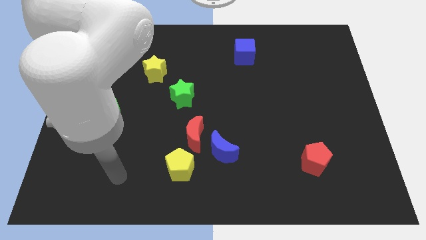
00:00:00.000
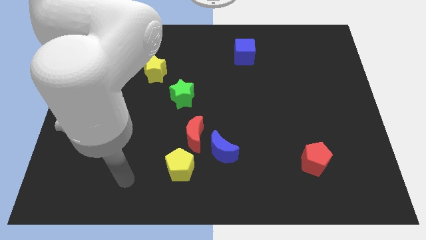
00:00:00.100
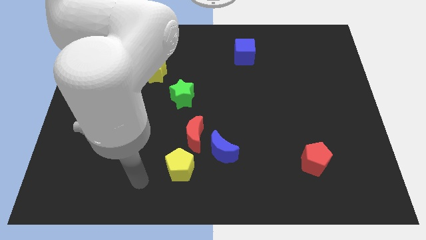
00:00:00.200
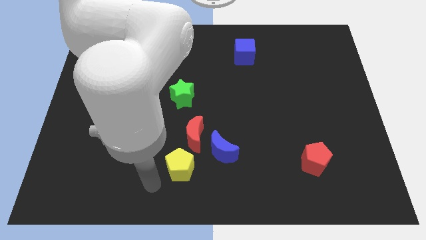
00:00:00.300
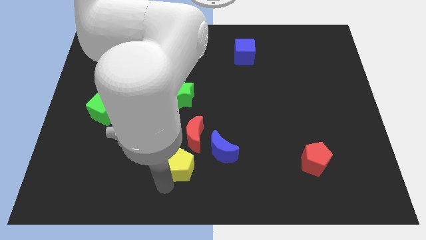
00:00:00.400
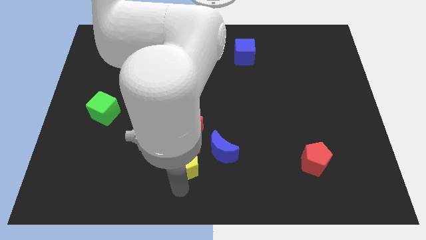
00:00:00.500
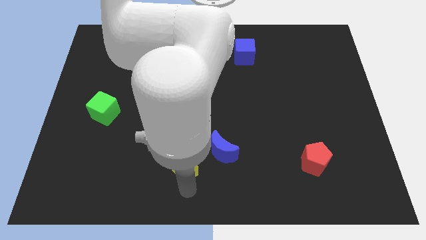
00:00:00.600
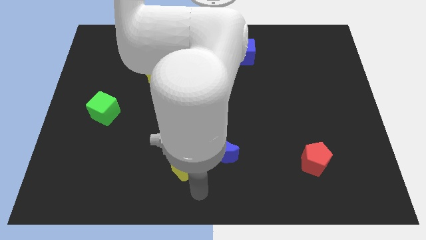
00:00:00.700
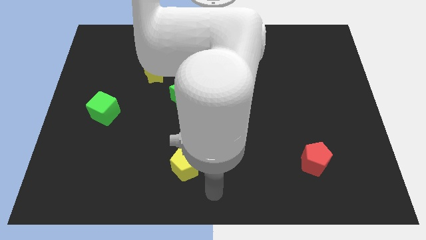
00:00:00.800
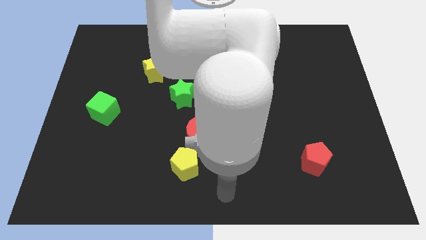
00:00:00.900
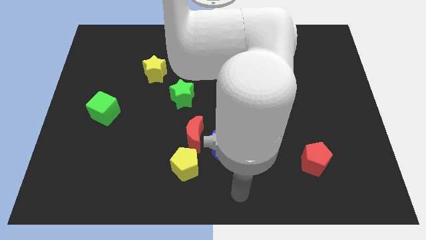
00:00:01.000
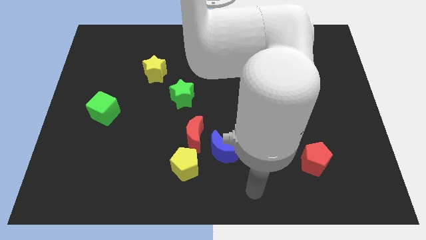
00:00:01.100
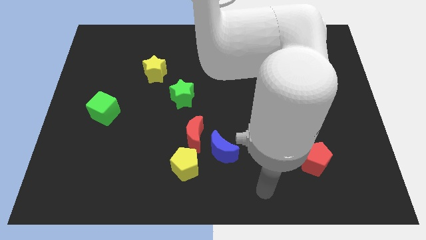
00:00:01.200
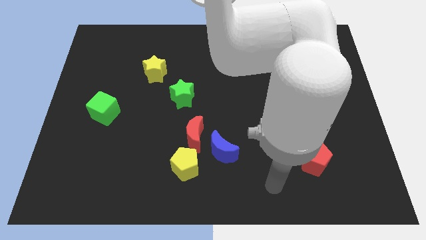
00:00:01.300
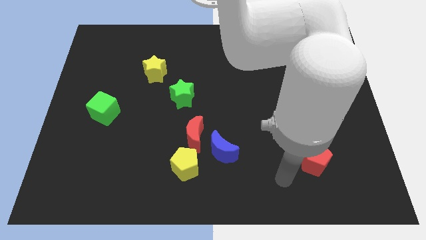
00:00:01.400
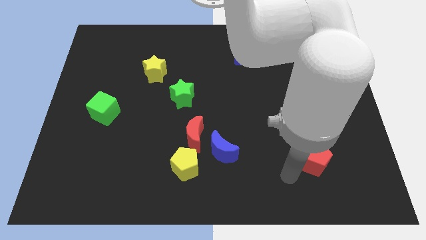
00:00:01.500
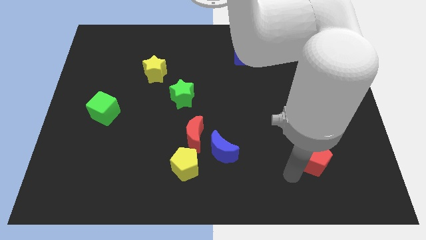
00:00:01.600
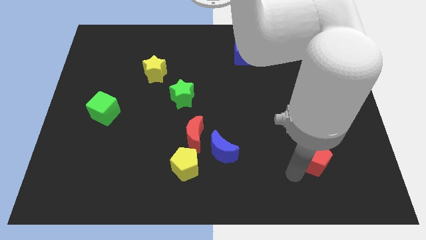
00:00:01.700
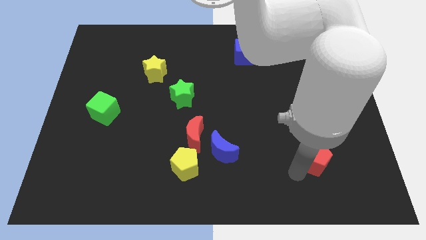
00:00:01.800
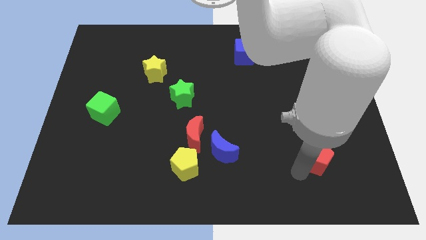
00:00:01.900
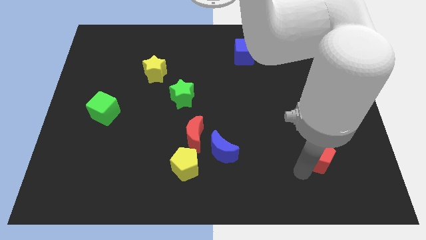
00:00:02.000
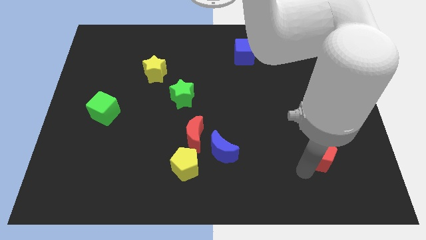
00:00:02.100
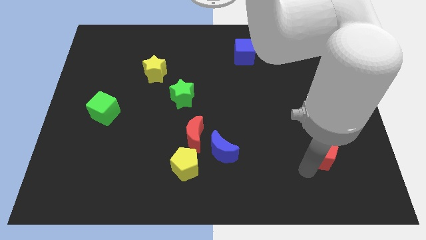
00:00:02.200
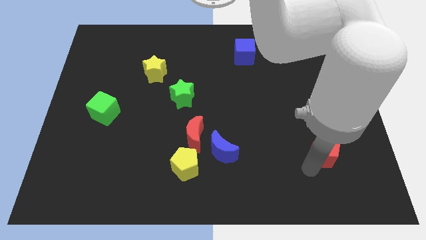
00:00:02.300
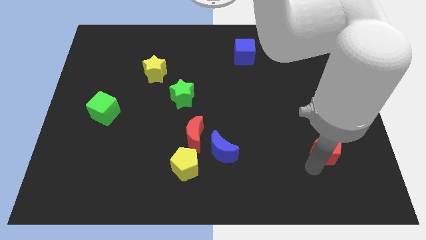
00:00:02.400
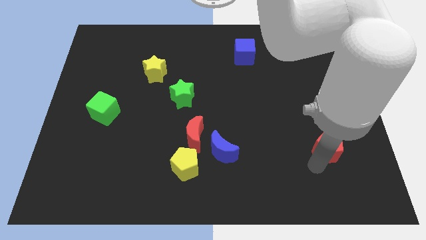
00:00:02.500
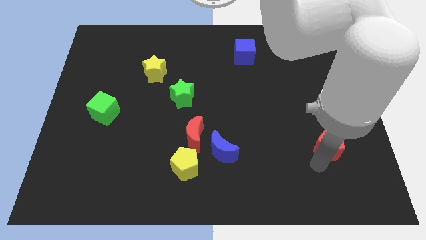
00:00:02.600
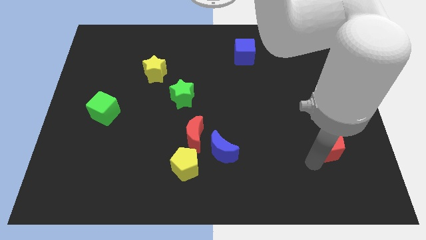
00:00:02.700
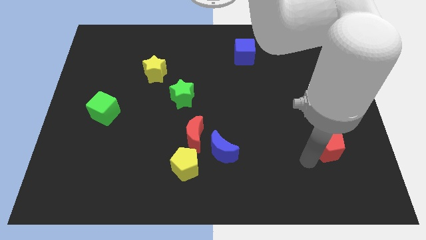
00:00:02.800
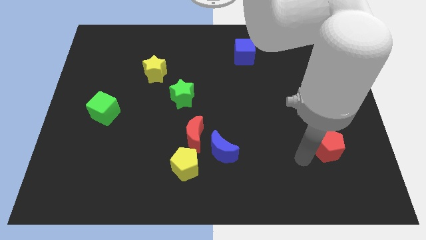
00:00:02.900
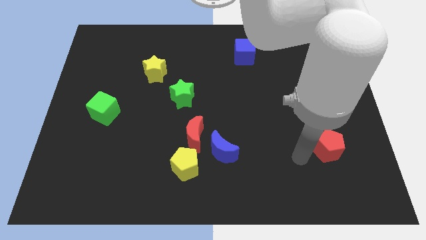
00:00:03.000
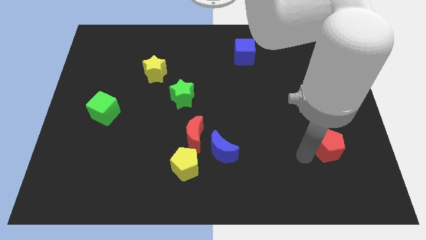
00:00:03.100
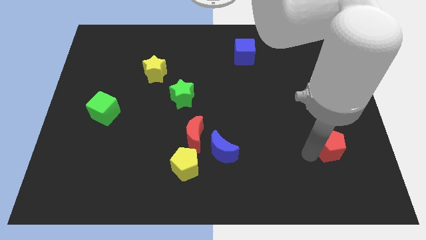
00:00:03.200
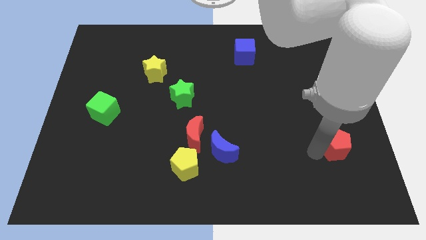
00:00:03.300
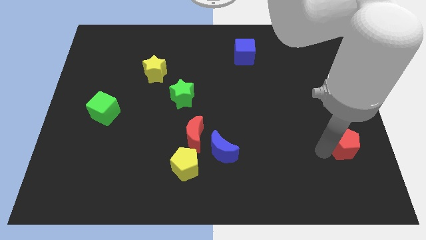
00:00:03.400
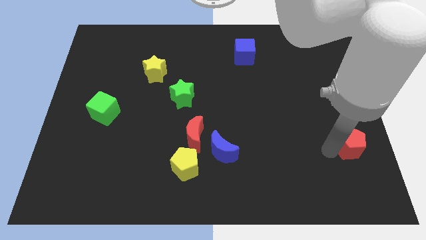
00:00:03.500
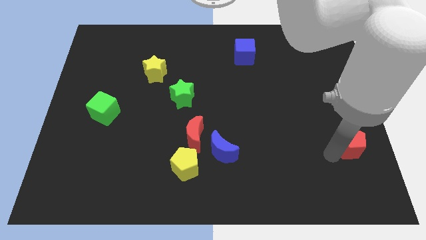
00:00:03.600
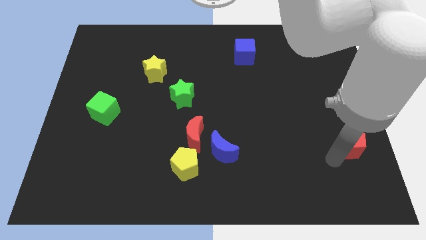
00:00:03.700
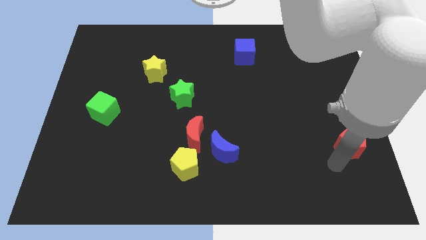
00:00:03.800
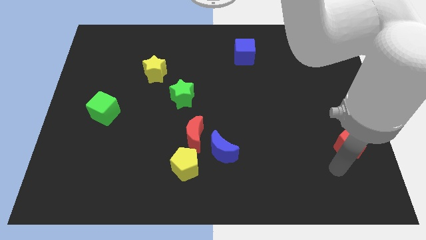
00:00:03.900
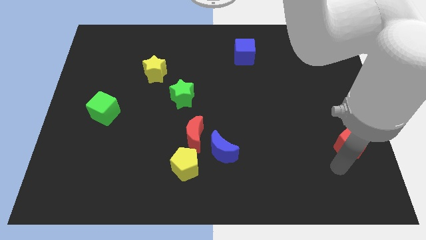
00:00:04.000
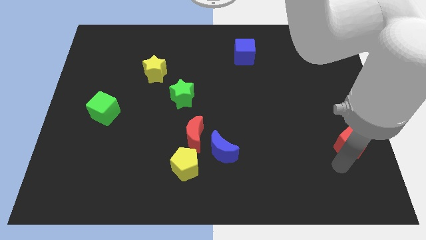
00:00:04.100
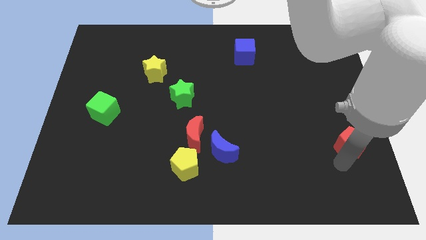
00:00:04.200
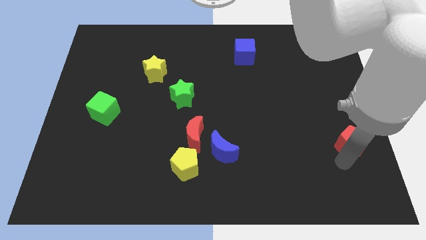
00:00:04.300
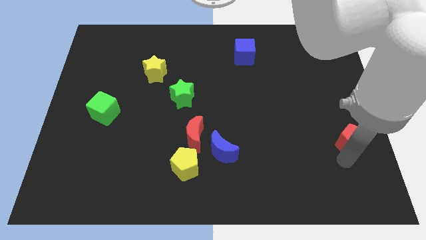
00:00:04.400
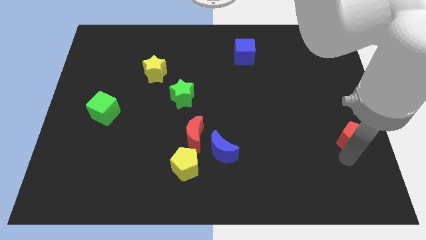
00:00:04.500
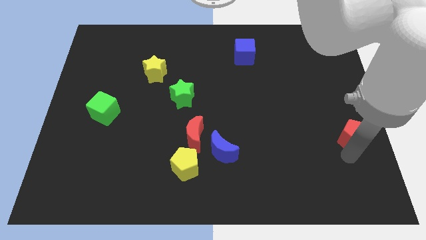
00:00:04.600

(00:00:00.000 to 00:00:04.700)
put the red pentagon to the right side of the board

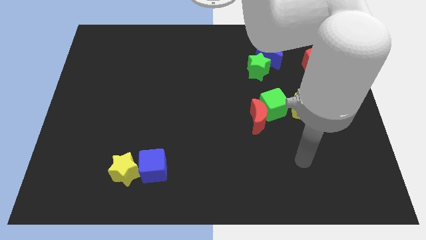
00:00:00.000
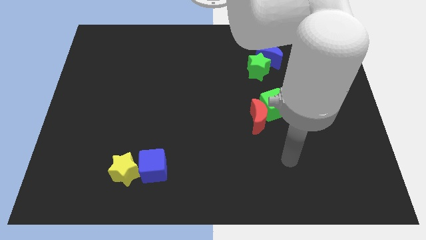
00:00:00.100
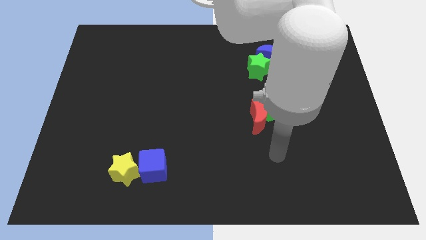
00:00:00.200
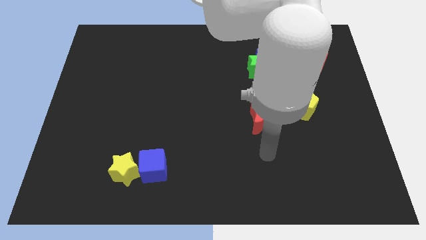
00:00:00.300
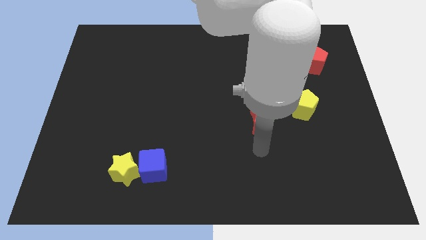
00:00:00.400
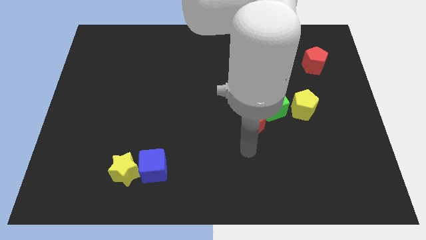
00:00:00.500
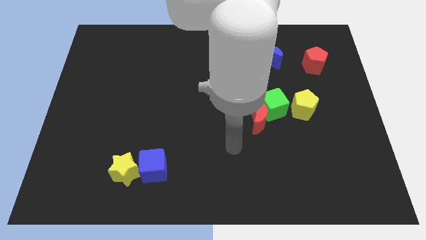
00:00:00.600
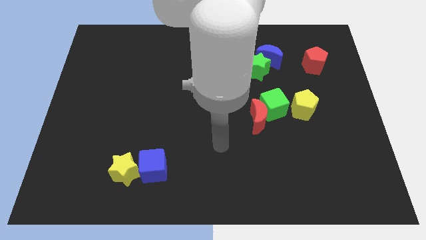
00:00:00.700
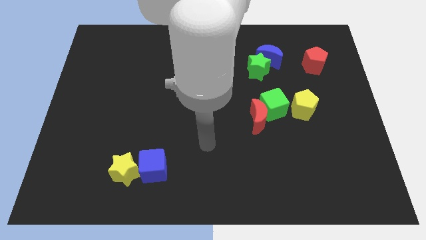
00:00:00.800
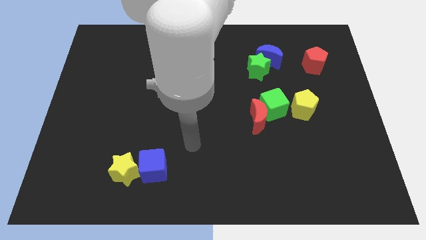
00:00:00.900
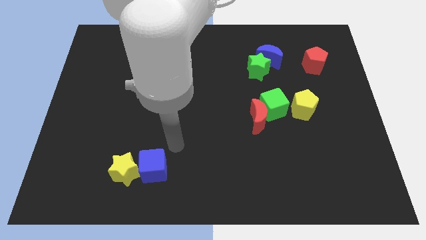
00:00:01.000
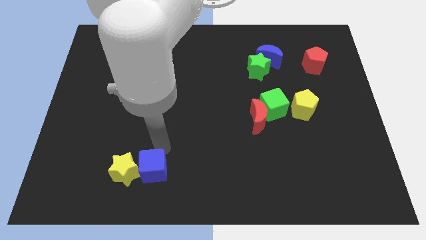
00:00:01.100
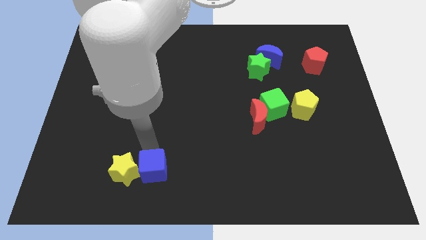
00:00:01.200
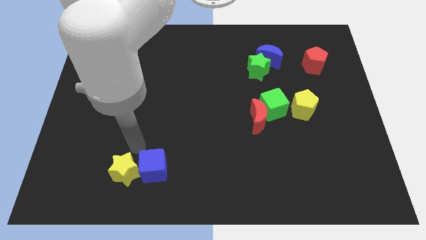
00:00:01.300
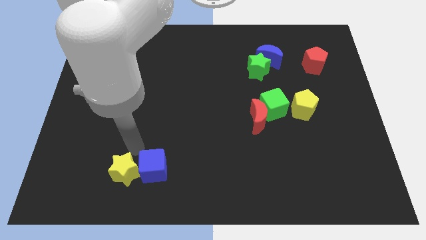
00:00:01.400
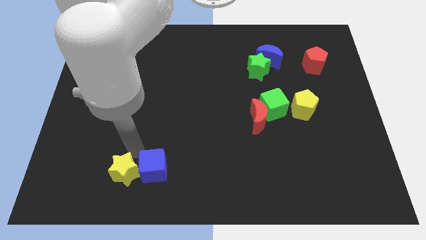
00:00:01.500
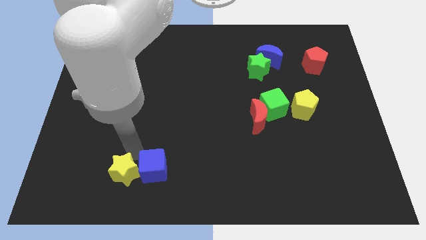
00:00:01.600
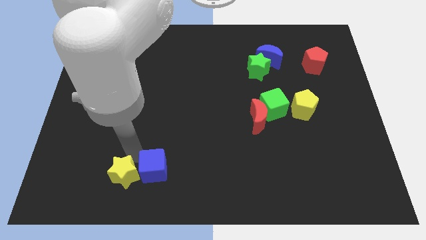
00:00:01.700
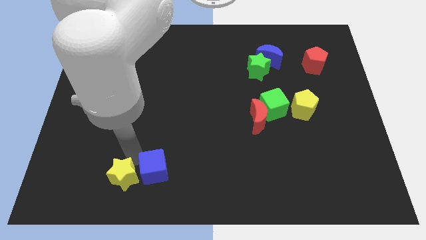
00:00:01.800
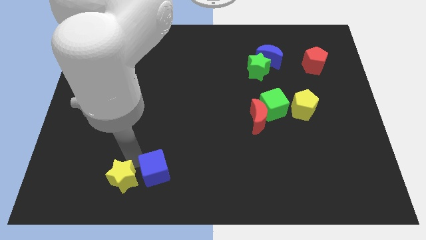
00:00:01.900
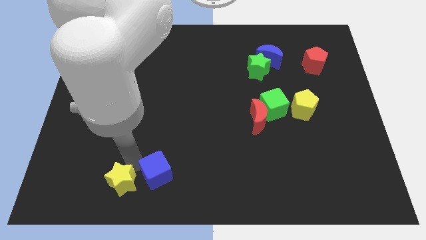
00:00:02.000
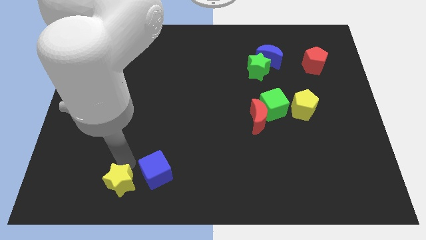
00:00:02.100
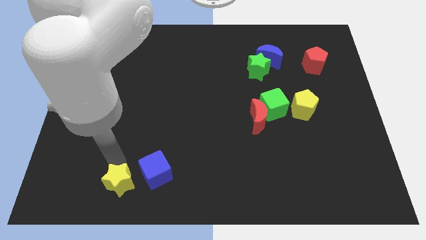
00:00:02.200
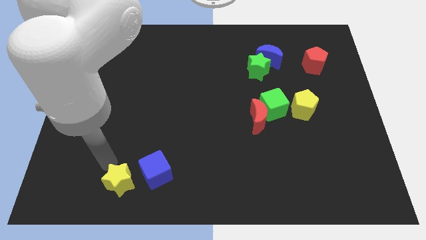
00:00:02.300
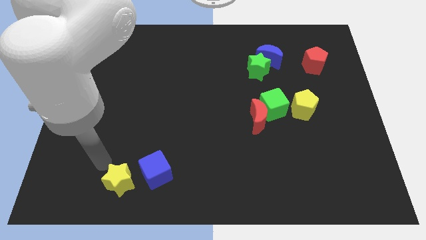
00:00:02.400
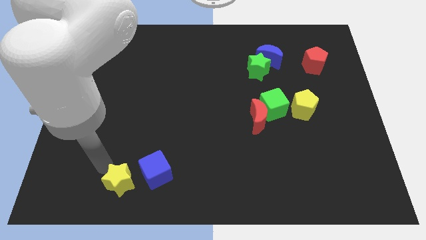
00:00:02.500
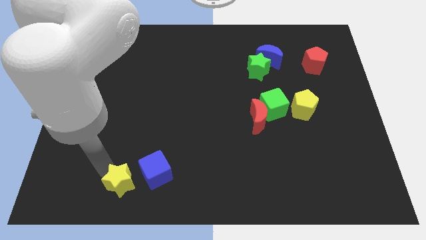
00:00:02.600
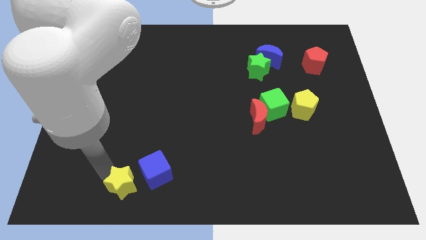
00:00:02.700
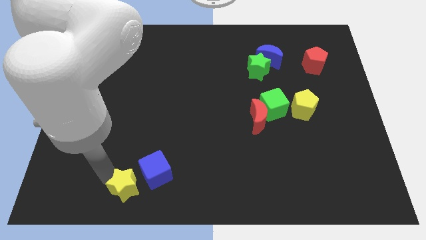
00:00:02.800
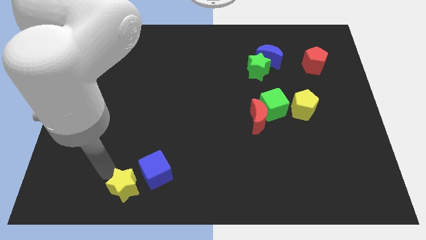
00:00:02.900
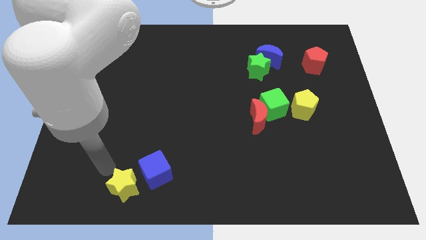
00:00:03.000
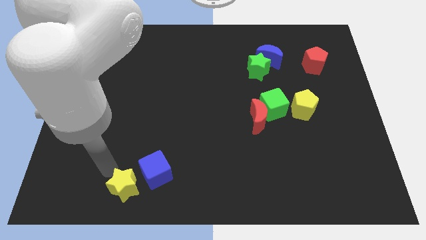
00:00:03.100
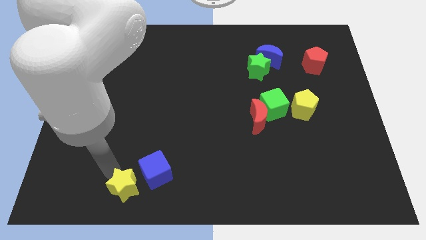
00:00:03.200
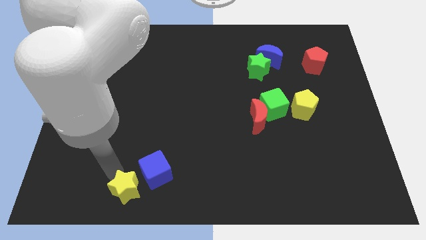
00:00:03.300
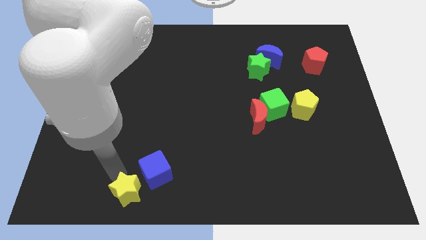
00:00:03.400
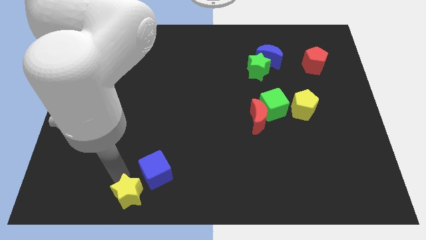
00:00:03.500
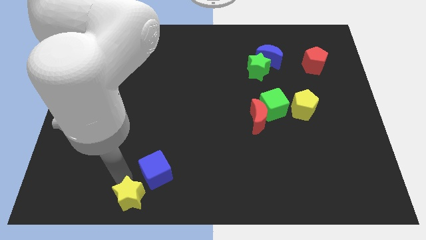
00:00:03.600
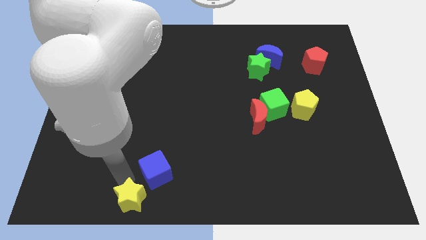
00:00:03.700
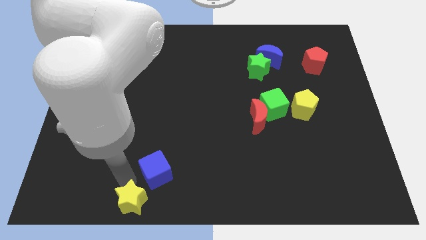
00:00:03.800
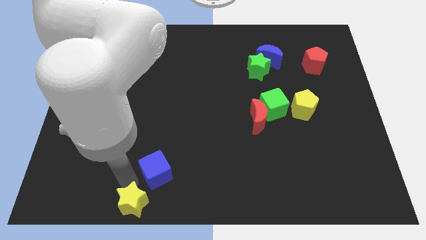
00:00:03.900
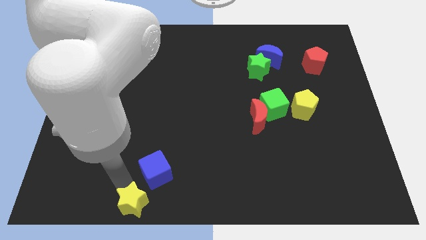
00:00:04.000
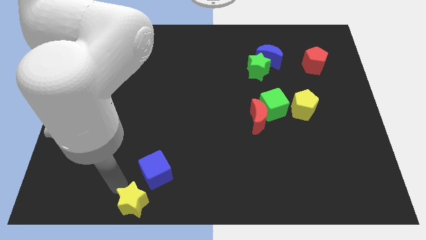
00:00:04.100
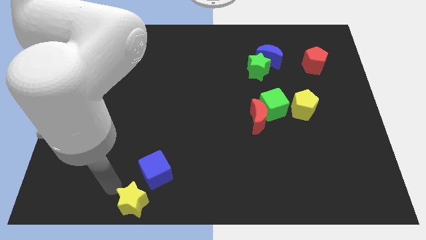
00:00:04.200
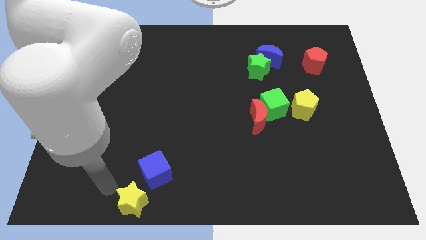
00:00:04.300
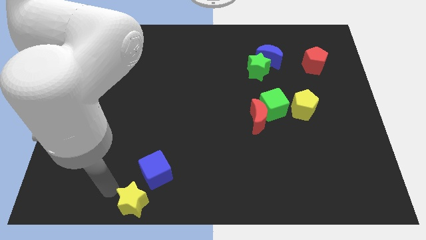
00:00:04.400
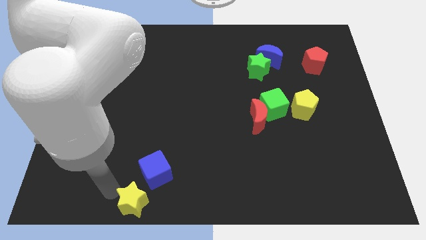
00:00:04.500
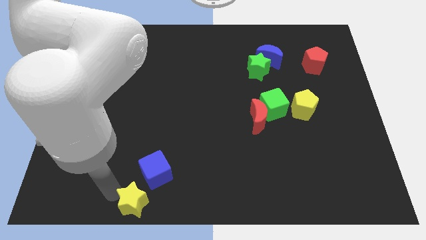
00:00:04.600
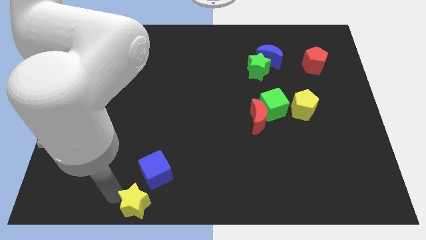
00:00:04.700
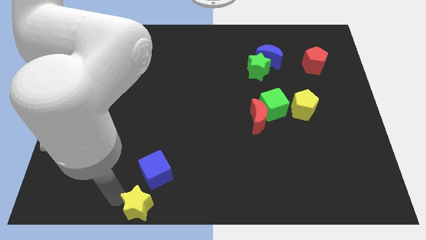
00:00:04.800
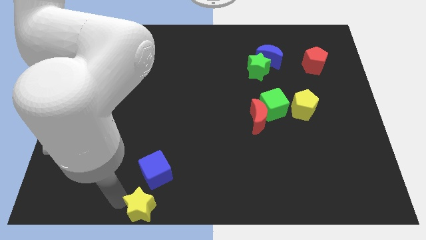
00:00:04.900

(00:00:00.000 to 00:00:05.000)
slide the yellow star to the bottom side
